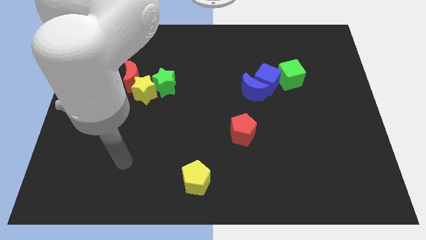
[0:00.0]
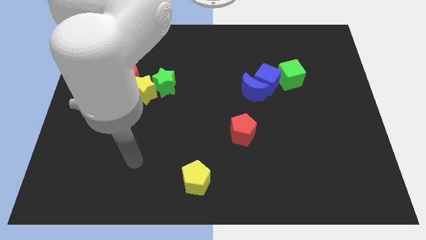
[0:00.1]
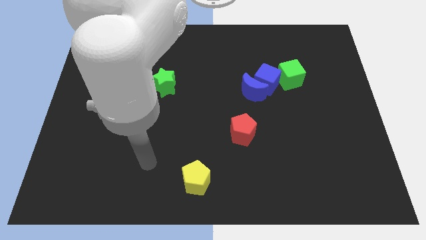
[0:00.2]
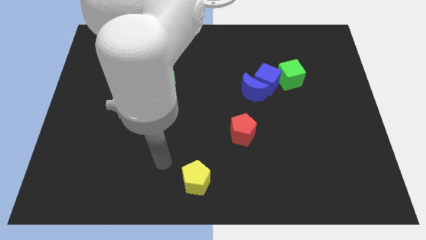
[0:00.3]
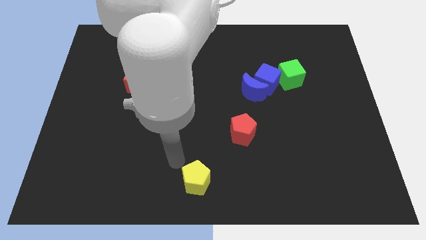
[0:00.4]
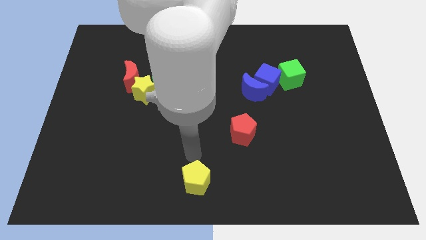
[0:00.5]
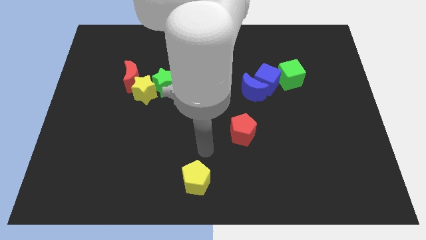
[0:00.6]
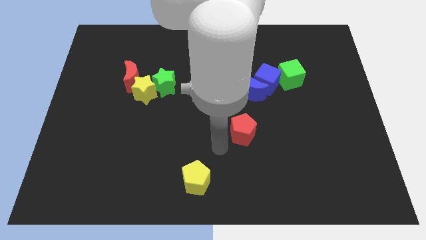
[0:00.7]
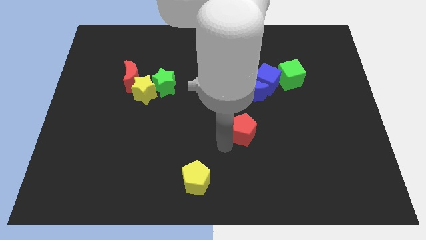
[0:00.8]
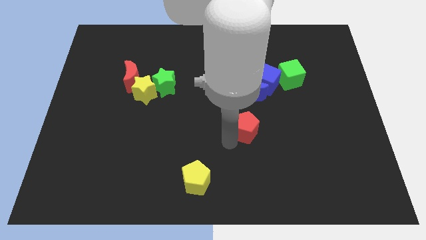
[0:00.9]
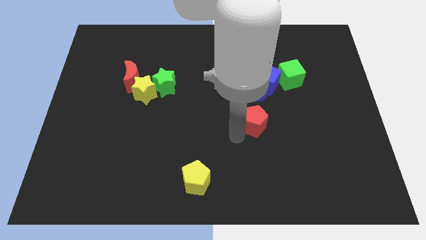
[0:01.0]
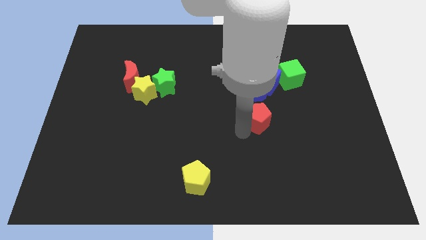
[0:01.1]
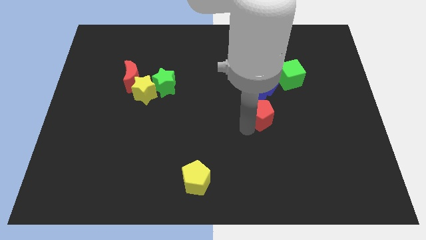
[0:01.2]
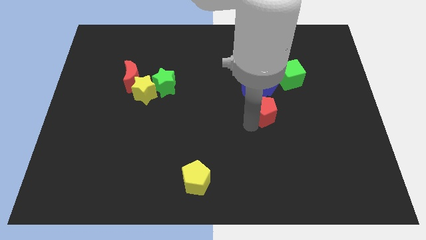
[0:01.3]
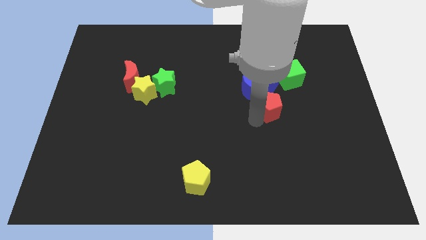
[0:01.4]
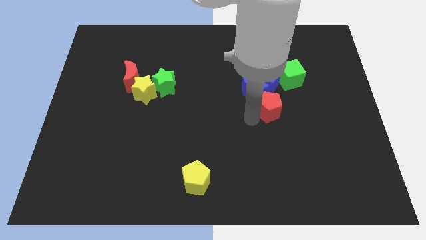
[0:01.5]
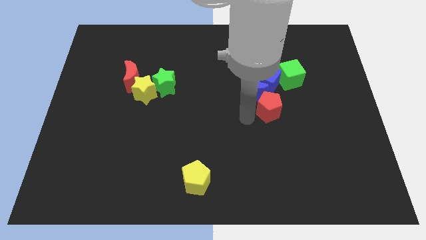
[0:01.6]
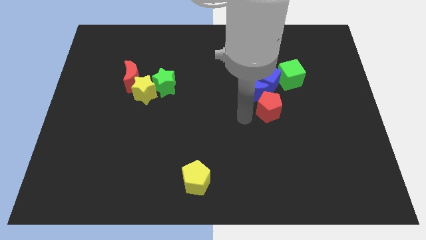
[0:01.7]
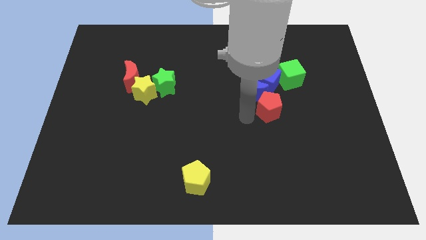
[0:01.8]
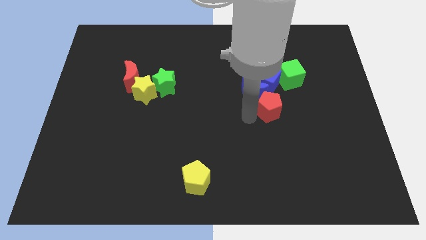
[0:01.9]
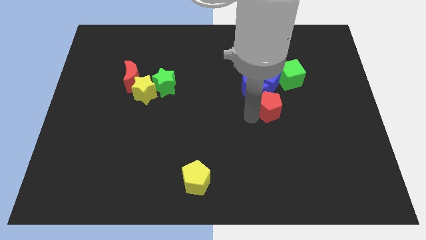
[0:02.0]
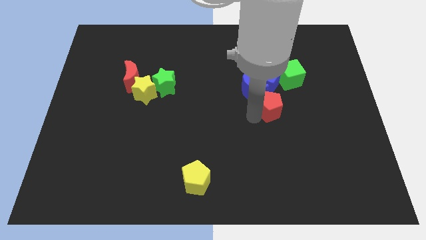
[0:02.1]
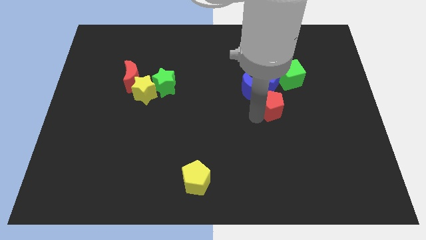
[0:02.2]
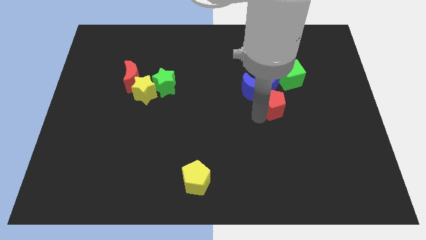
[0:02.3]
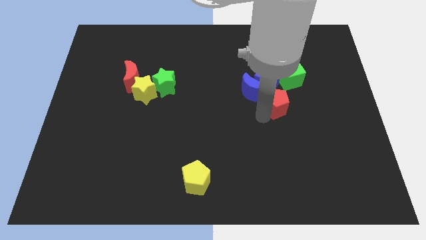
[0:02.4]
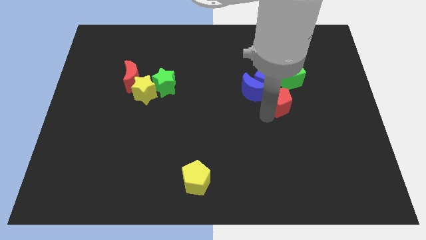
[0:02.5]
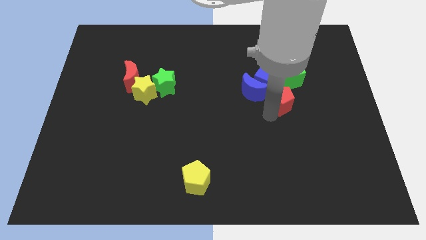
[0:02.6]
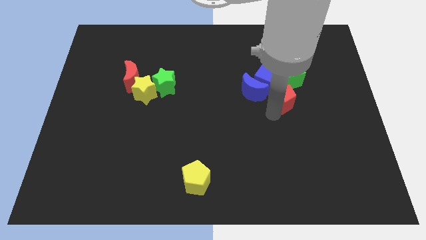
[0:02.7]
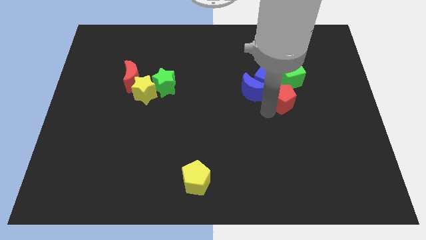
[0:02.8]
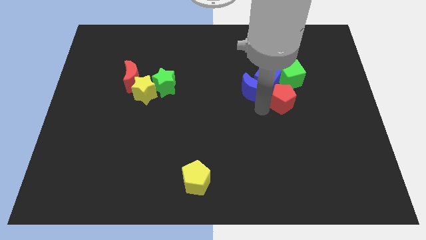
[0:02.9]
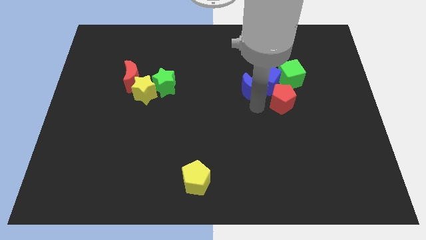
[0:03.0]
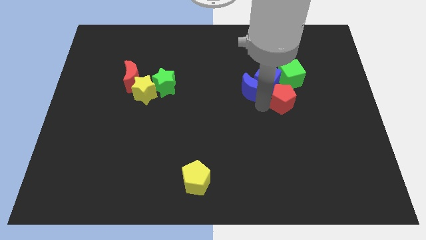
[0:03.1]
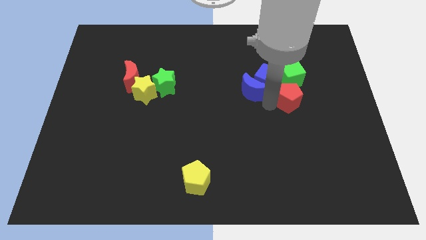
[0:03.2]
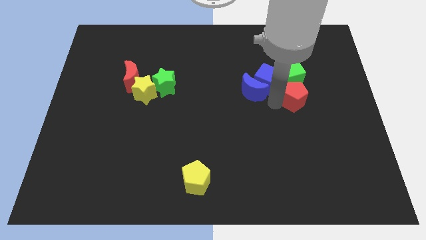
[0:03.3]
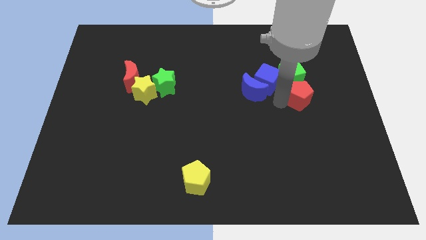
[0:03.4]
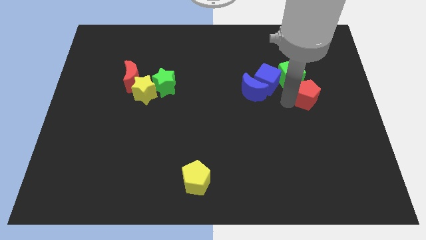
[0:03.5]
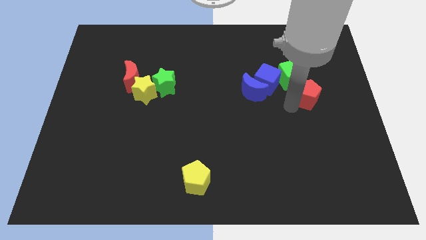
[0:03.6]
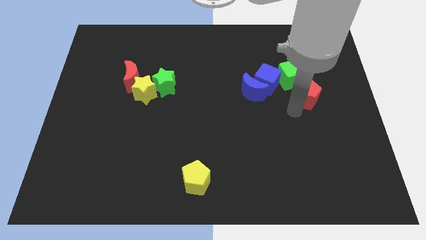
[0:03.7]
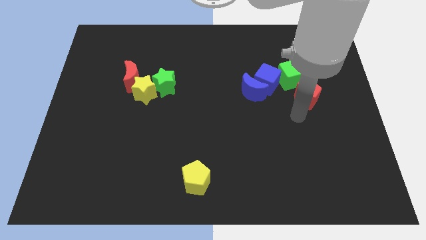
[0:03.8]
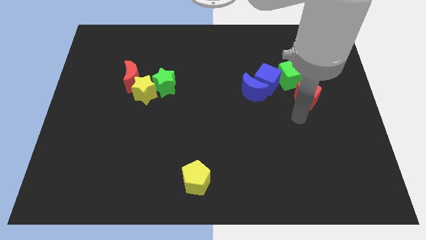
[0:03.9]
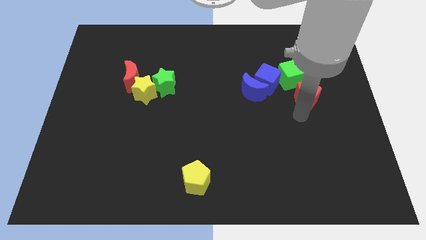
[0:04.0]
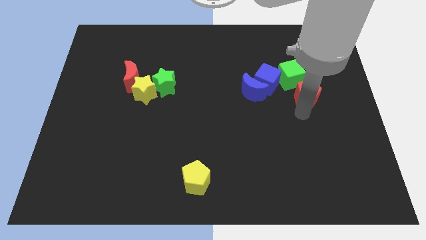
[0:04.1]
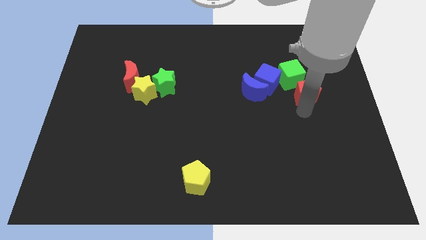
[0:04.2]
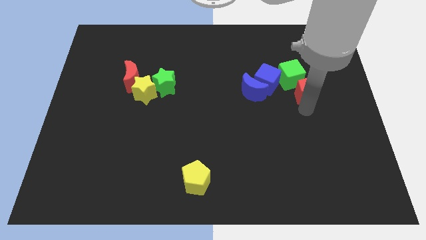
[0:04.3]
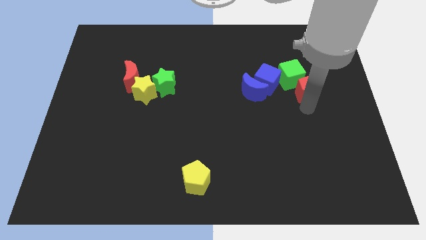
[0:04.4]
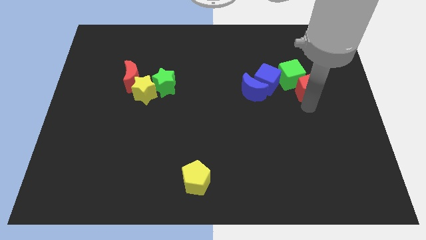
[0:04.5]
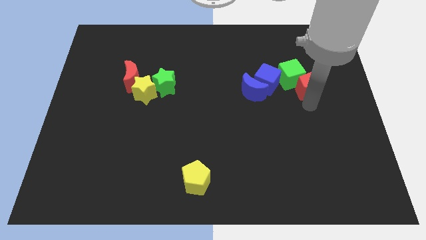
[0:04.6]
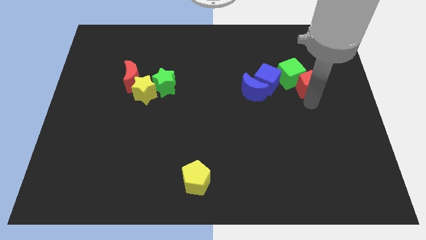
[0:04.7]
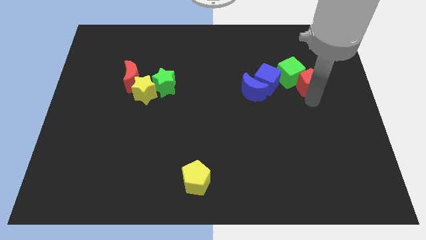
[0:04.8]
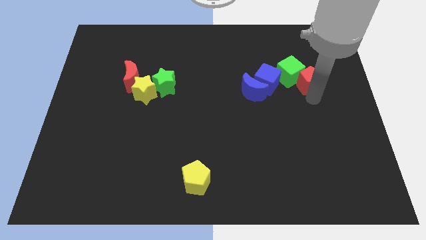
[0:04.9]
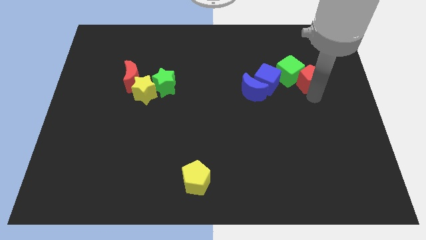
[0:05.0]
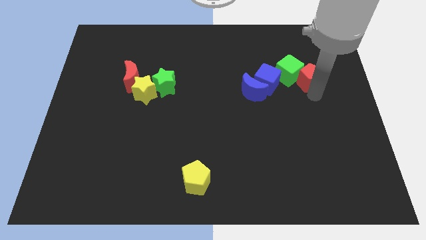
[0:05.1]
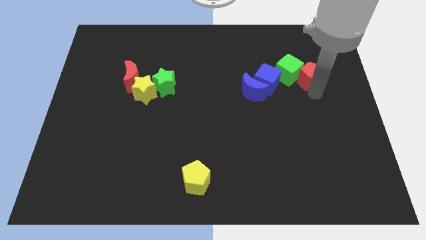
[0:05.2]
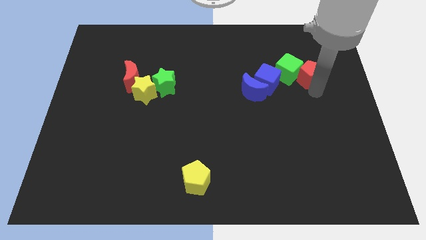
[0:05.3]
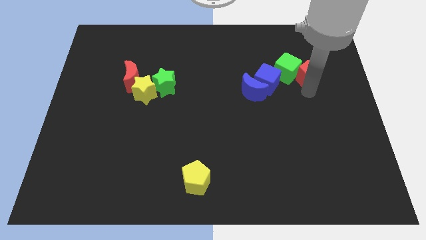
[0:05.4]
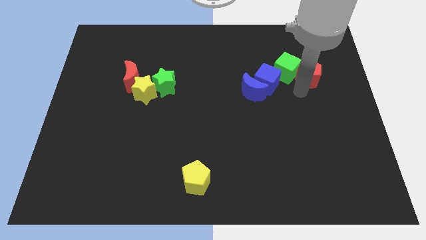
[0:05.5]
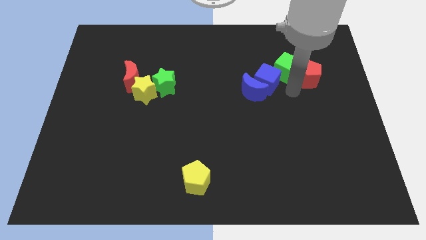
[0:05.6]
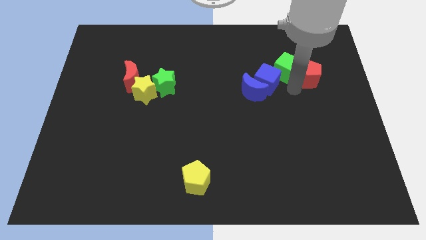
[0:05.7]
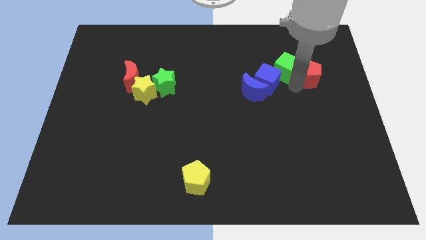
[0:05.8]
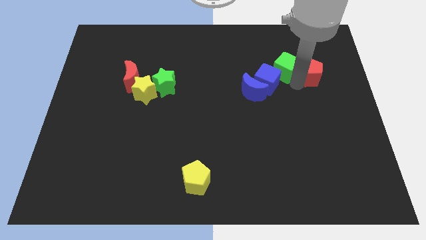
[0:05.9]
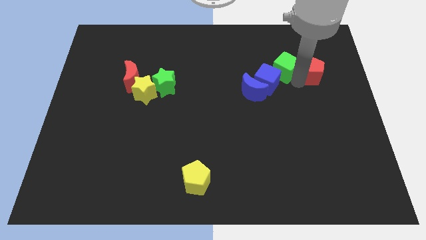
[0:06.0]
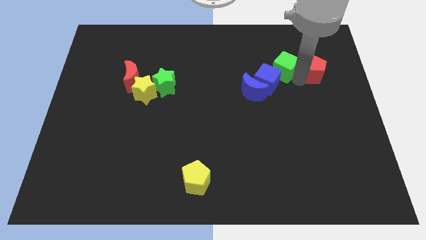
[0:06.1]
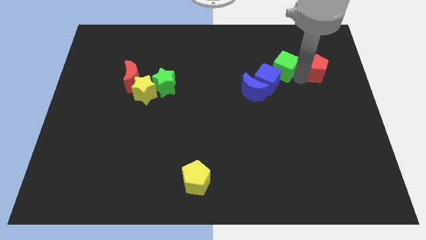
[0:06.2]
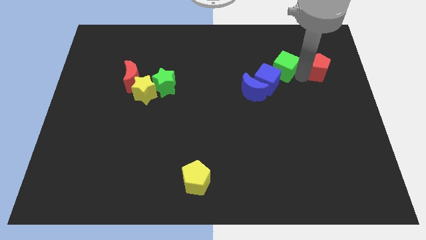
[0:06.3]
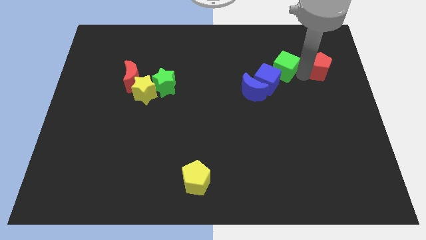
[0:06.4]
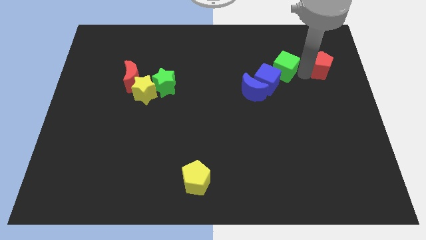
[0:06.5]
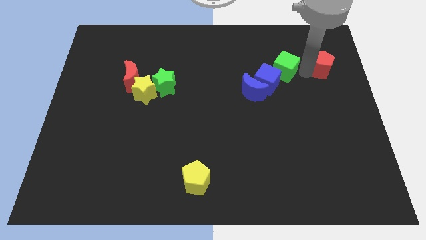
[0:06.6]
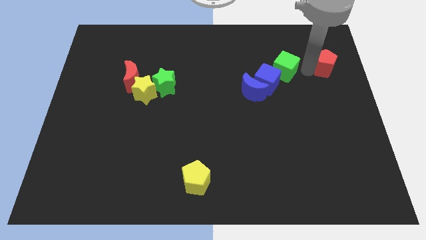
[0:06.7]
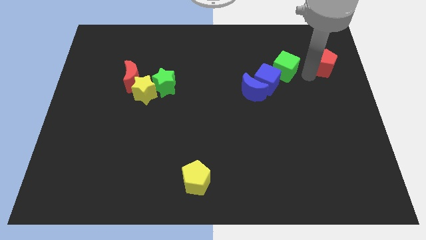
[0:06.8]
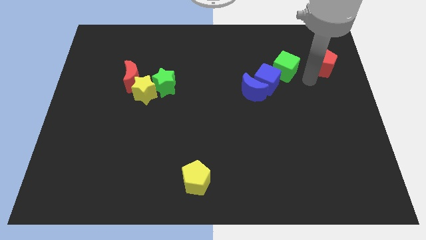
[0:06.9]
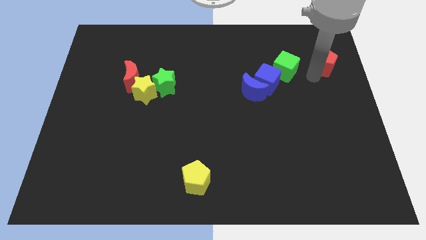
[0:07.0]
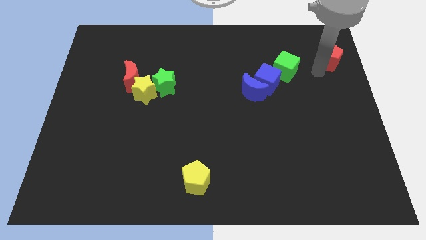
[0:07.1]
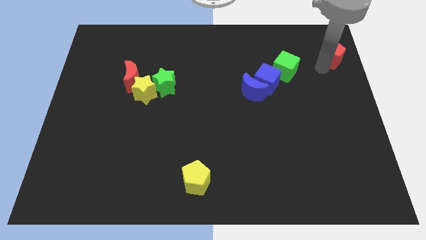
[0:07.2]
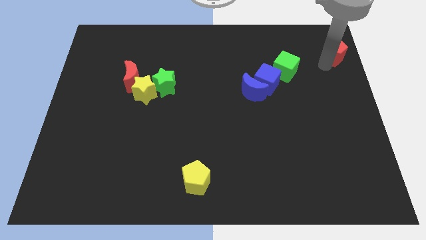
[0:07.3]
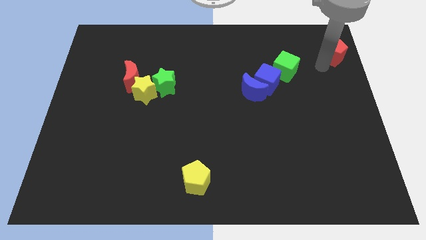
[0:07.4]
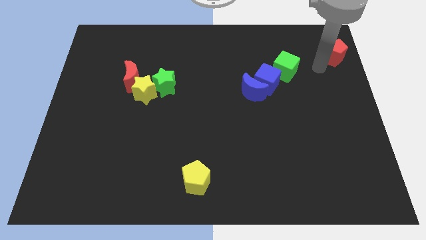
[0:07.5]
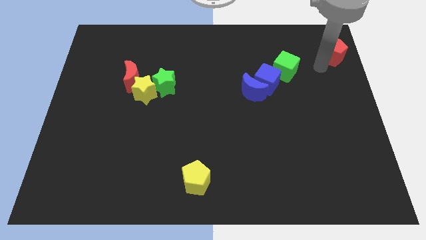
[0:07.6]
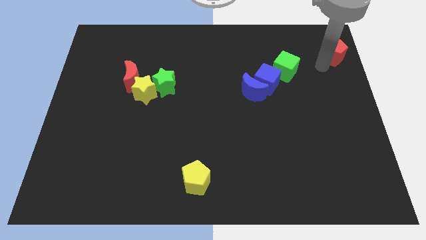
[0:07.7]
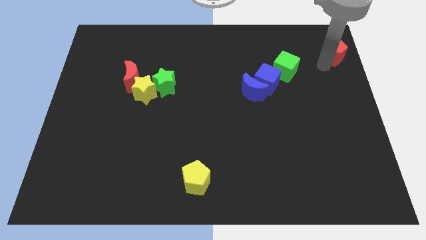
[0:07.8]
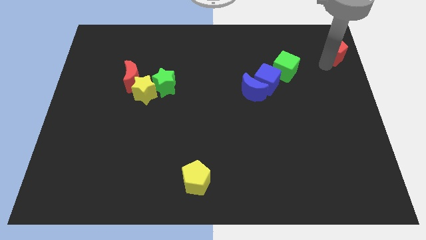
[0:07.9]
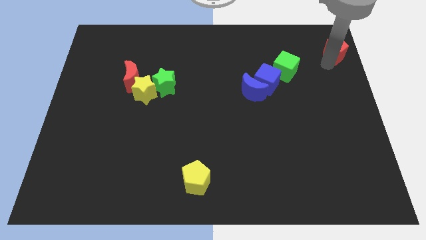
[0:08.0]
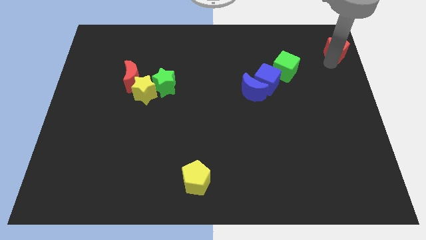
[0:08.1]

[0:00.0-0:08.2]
slide the red pentagon to the top right
